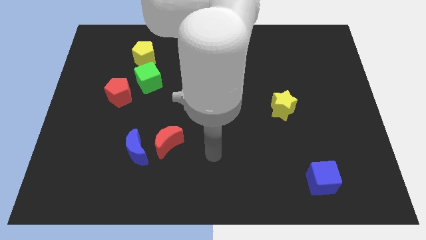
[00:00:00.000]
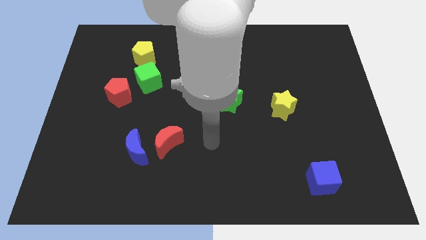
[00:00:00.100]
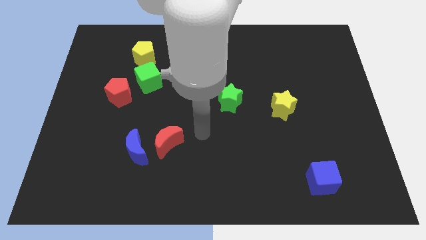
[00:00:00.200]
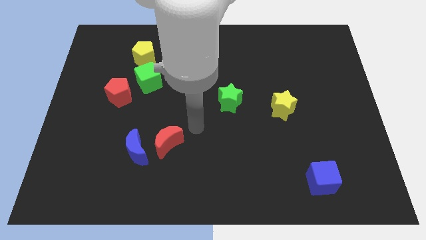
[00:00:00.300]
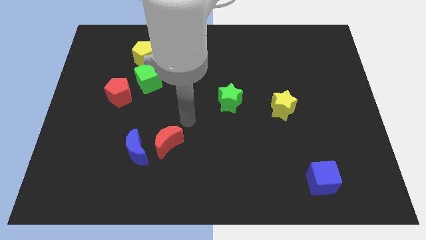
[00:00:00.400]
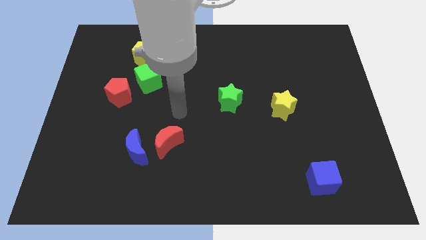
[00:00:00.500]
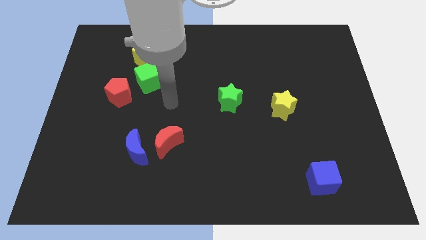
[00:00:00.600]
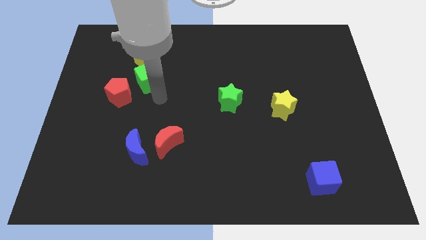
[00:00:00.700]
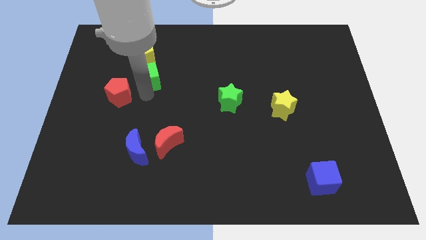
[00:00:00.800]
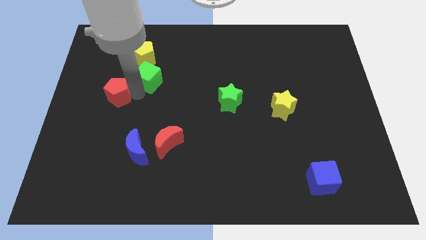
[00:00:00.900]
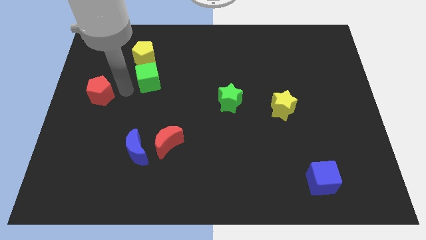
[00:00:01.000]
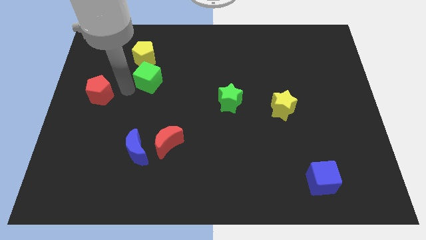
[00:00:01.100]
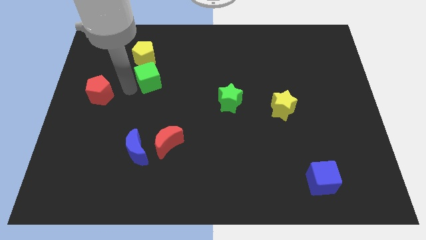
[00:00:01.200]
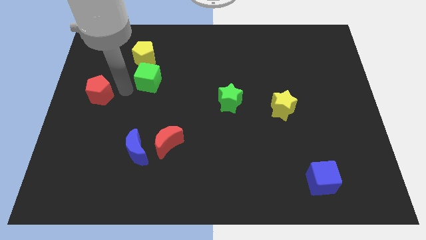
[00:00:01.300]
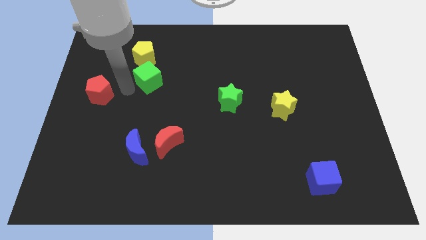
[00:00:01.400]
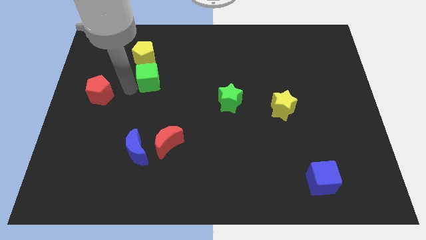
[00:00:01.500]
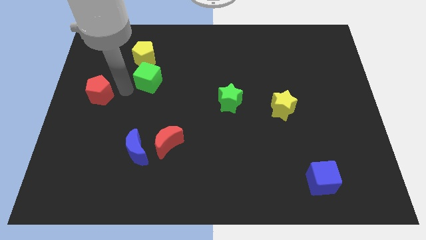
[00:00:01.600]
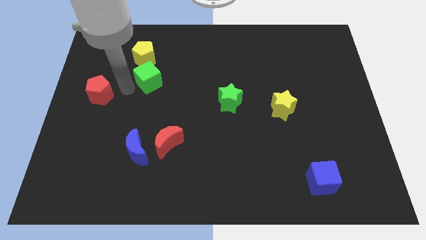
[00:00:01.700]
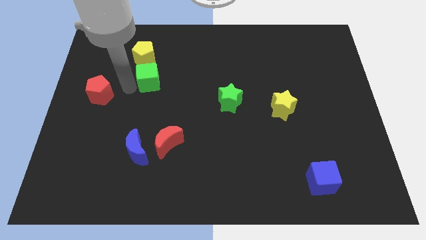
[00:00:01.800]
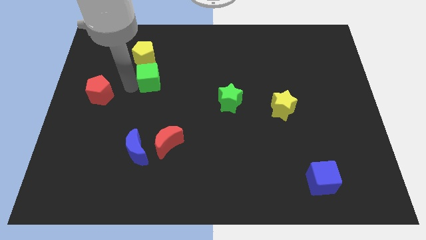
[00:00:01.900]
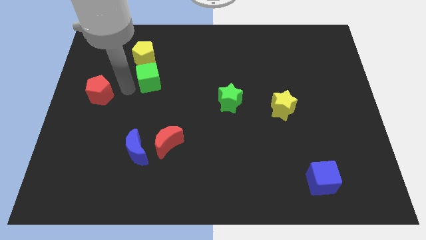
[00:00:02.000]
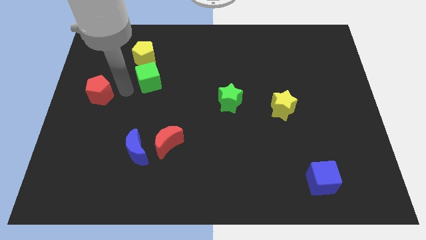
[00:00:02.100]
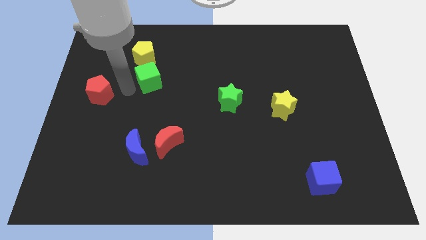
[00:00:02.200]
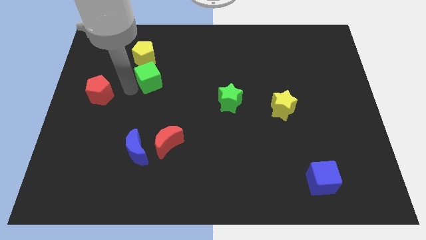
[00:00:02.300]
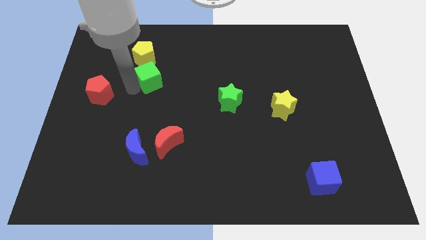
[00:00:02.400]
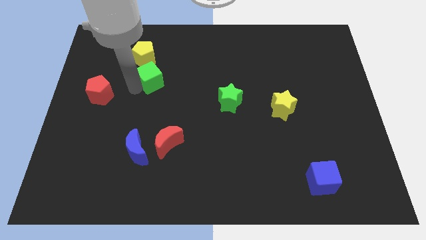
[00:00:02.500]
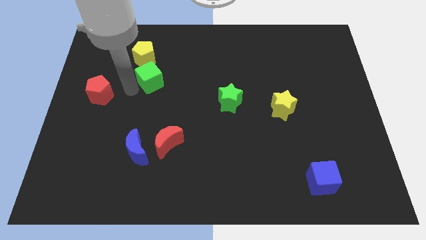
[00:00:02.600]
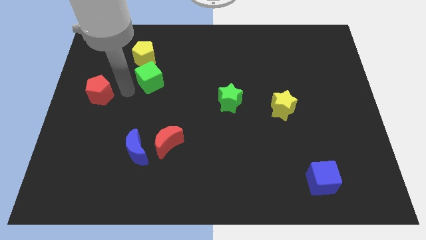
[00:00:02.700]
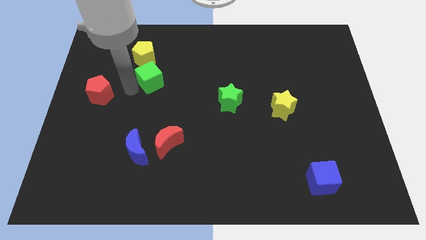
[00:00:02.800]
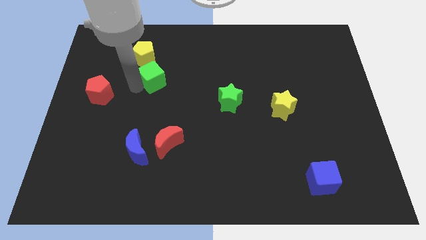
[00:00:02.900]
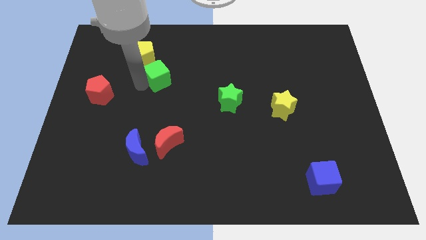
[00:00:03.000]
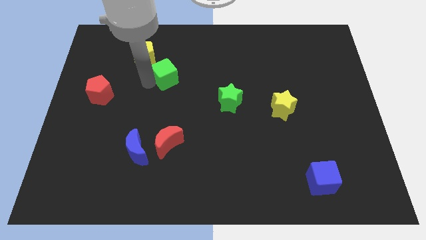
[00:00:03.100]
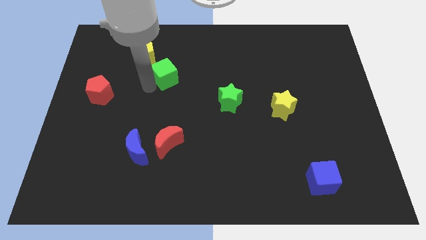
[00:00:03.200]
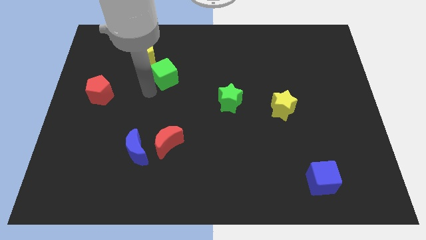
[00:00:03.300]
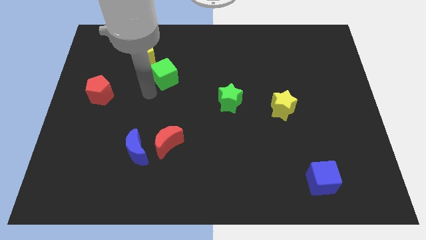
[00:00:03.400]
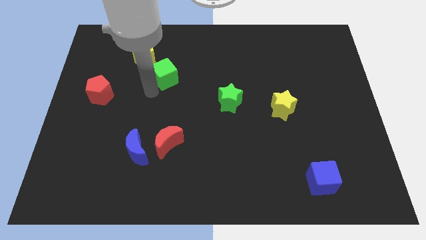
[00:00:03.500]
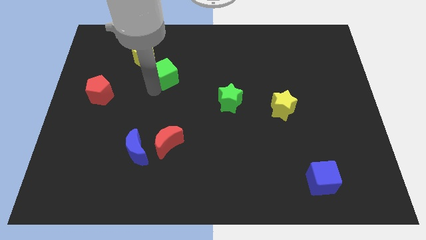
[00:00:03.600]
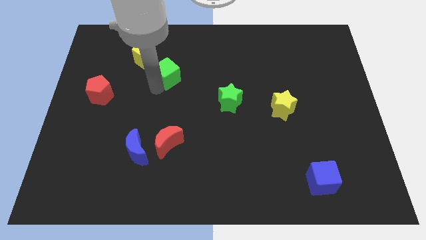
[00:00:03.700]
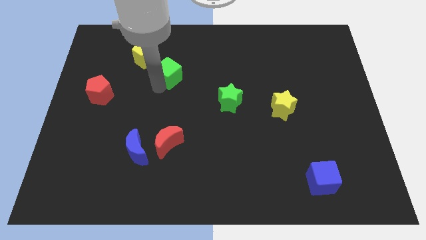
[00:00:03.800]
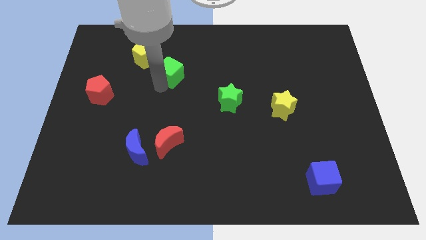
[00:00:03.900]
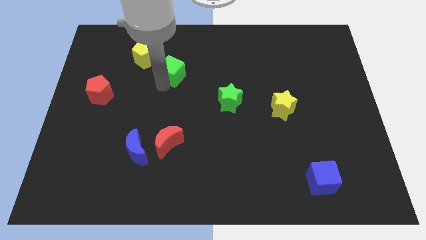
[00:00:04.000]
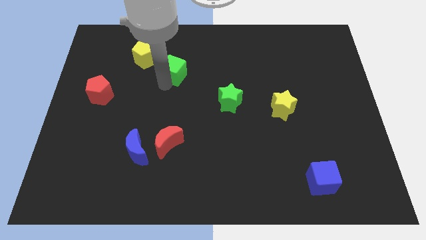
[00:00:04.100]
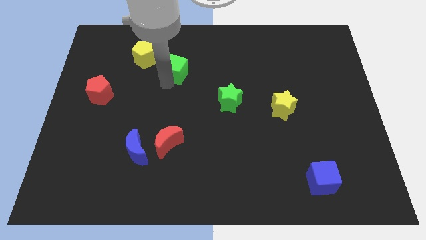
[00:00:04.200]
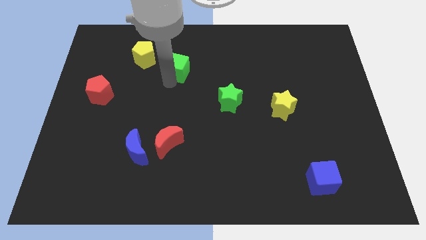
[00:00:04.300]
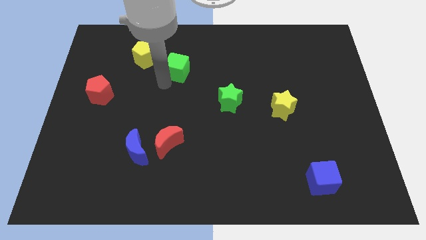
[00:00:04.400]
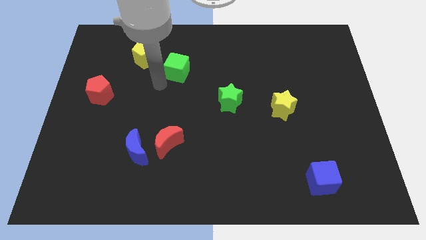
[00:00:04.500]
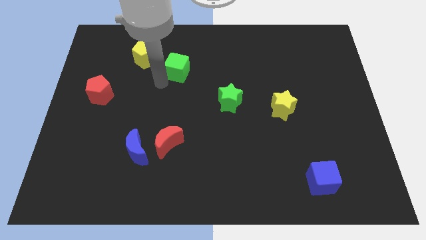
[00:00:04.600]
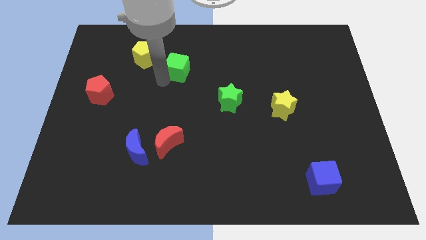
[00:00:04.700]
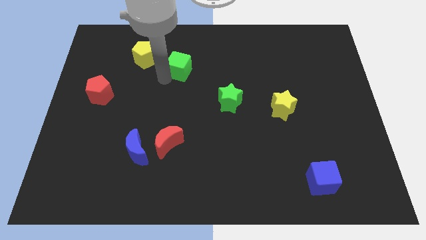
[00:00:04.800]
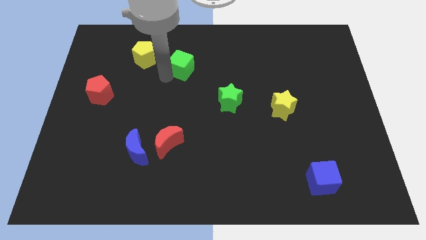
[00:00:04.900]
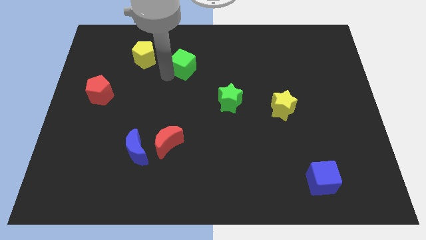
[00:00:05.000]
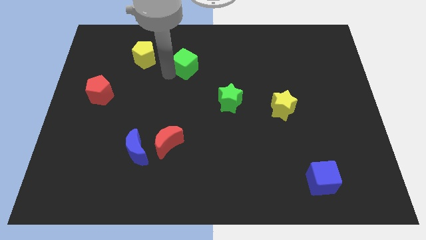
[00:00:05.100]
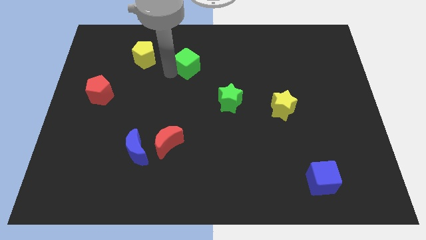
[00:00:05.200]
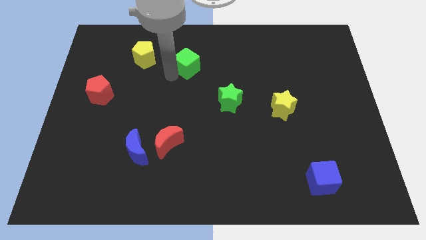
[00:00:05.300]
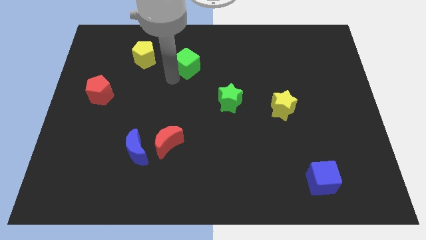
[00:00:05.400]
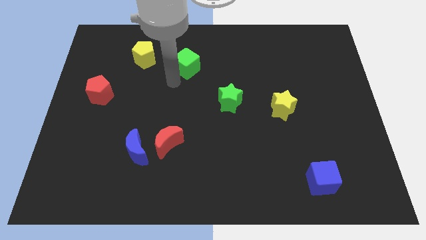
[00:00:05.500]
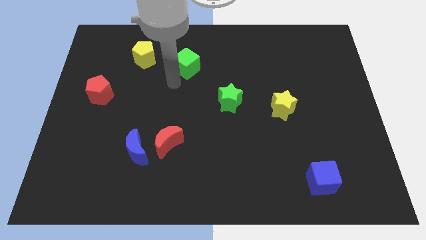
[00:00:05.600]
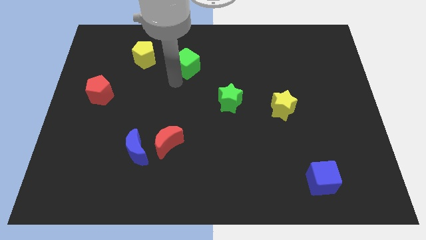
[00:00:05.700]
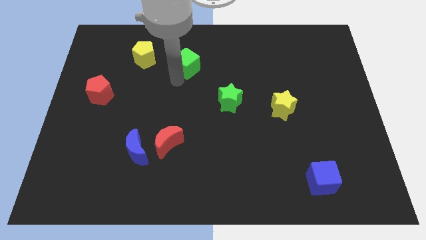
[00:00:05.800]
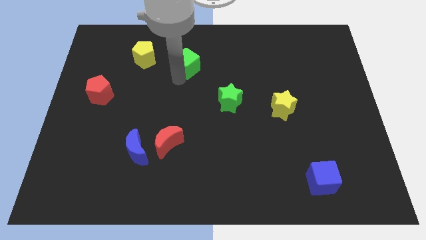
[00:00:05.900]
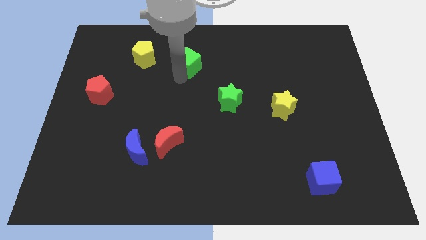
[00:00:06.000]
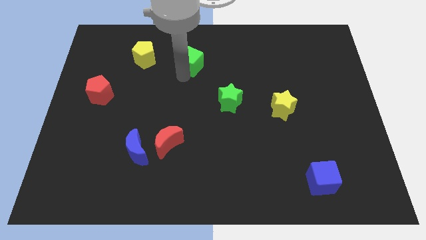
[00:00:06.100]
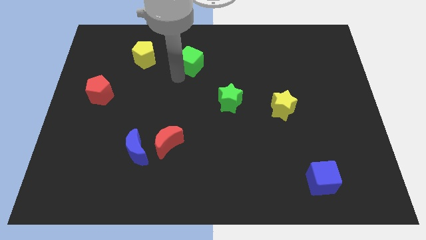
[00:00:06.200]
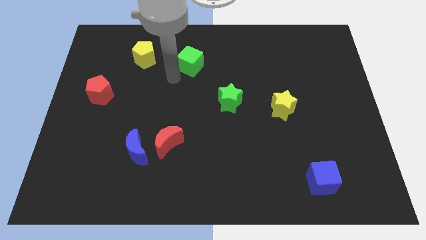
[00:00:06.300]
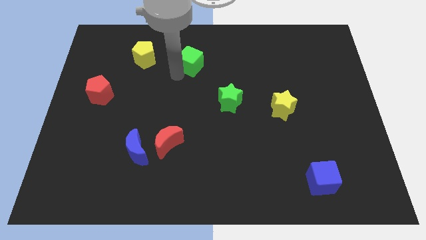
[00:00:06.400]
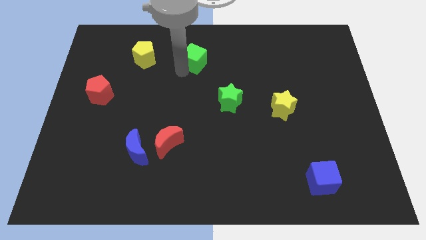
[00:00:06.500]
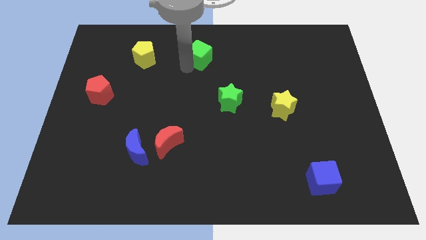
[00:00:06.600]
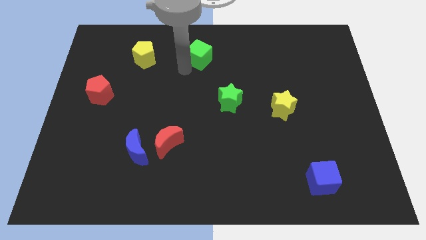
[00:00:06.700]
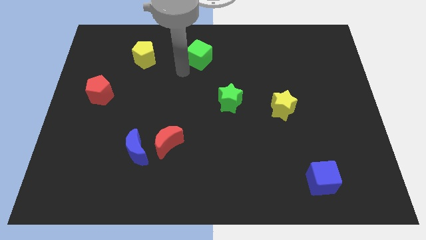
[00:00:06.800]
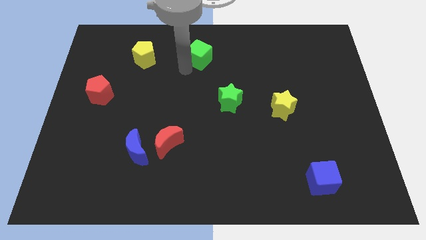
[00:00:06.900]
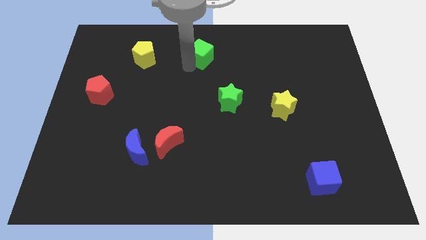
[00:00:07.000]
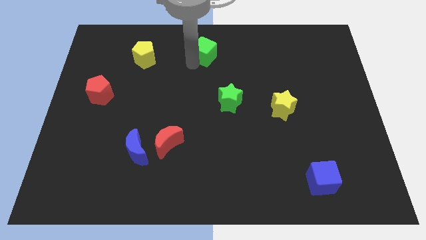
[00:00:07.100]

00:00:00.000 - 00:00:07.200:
move the green cube to the top
